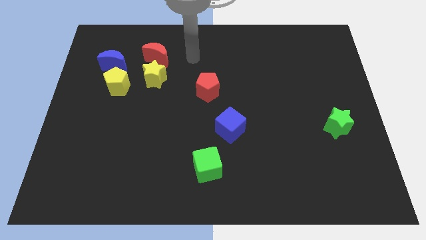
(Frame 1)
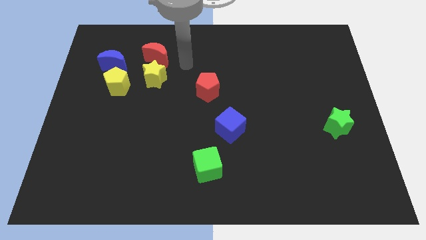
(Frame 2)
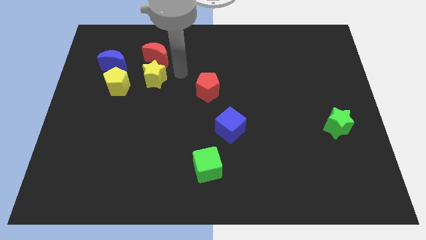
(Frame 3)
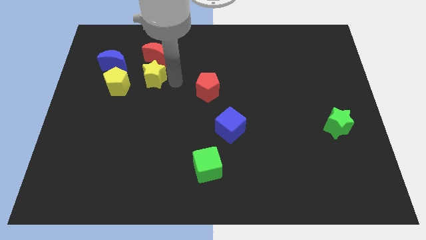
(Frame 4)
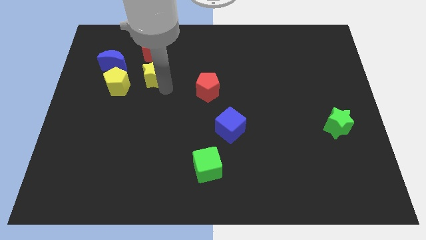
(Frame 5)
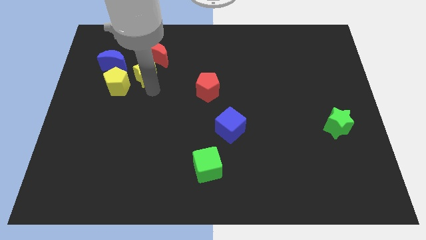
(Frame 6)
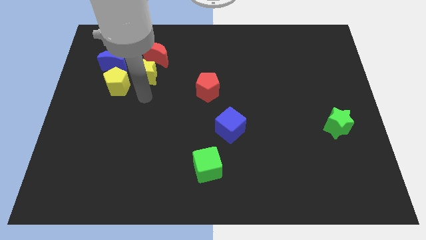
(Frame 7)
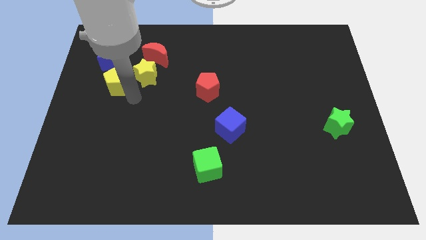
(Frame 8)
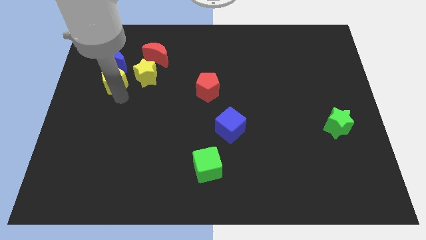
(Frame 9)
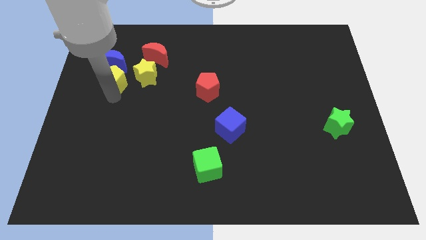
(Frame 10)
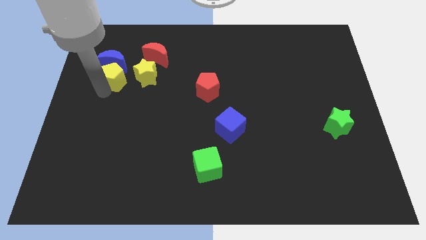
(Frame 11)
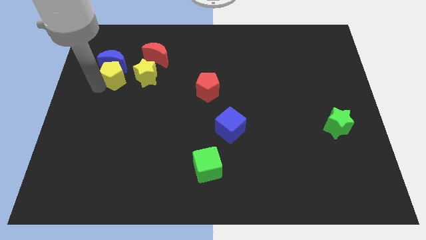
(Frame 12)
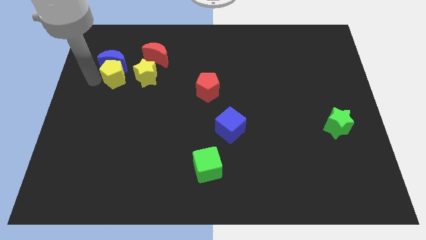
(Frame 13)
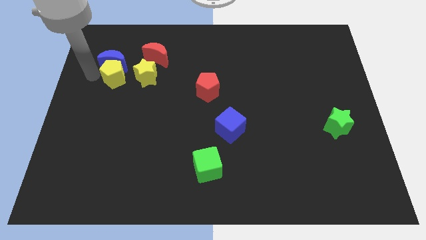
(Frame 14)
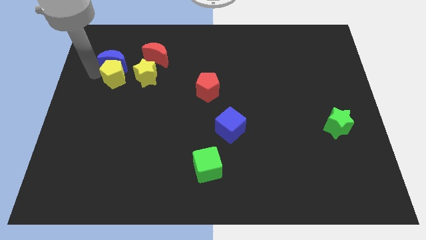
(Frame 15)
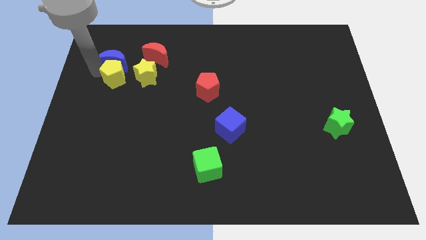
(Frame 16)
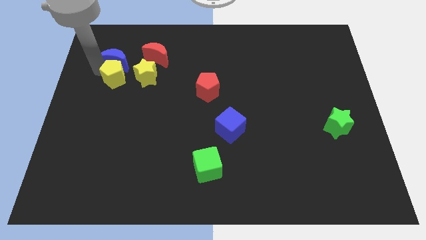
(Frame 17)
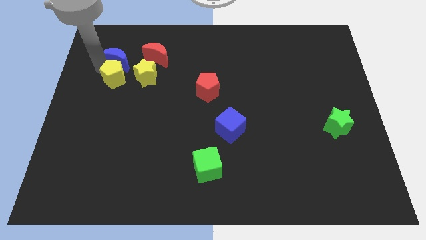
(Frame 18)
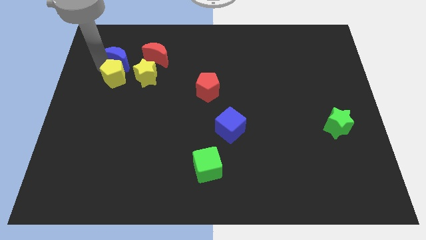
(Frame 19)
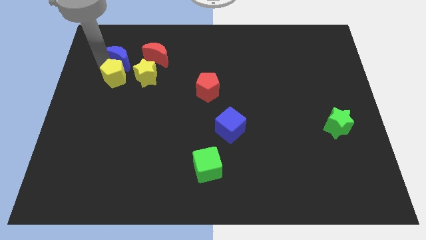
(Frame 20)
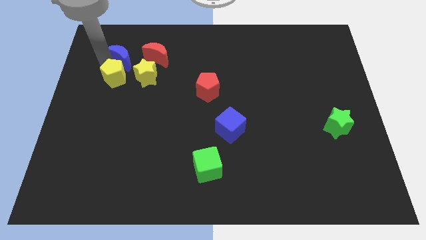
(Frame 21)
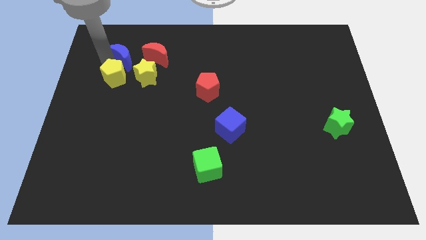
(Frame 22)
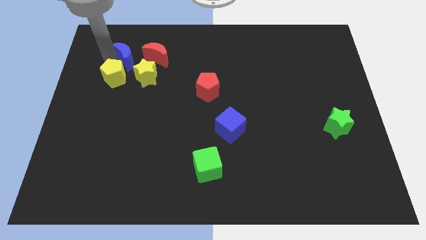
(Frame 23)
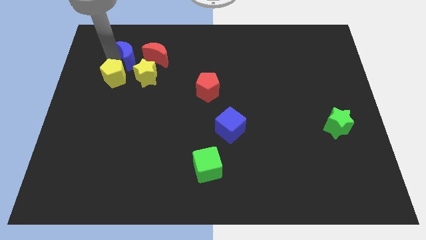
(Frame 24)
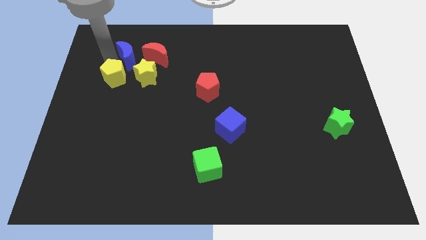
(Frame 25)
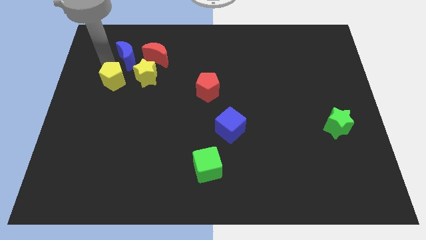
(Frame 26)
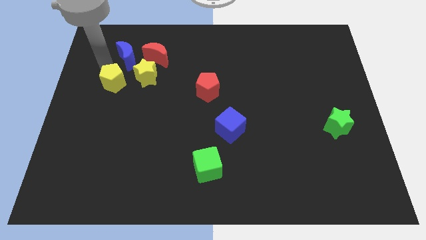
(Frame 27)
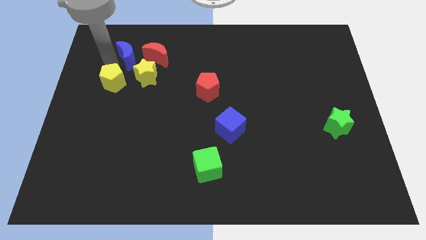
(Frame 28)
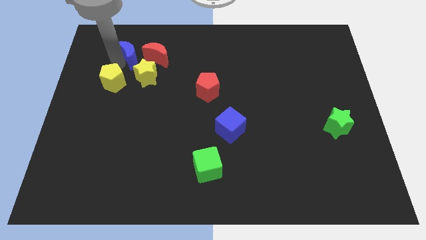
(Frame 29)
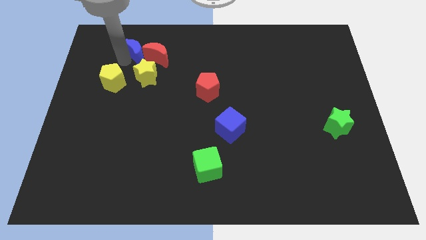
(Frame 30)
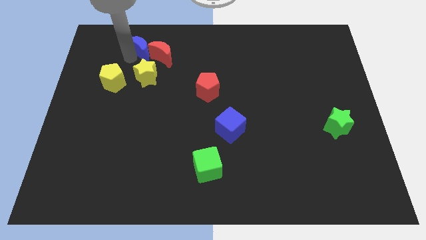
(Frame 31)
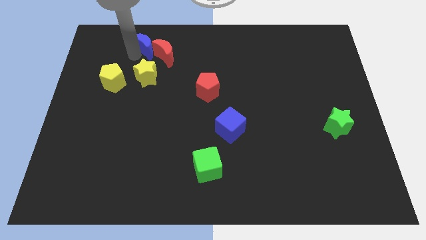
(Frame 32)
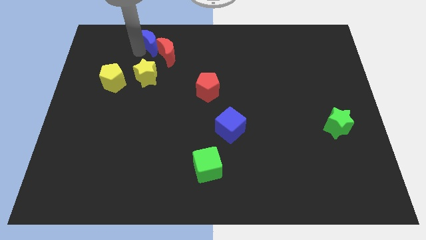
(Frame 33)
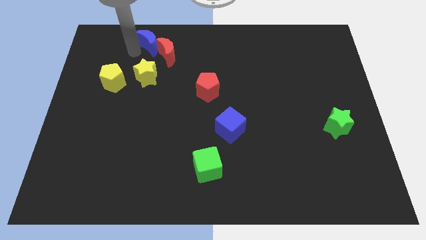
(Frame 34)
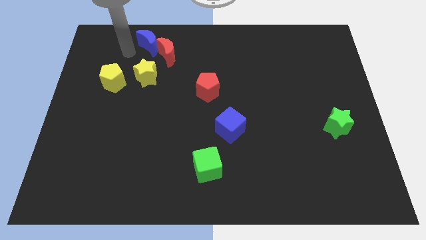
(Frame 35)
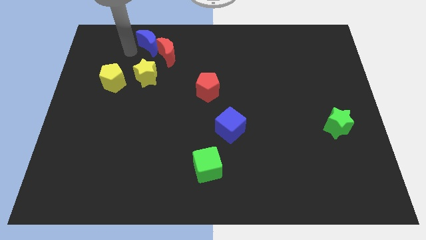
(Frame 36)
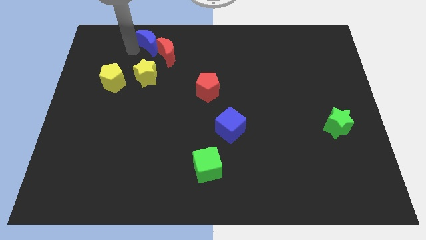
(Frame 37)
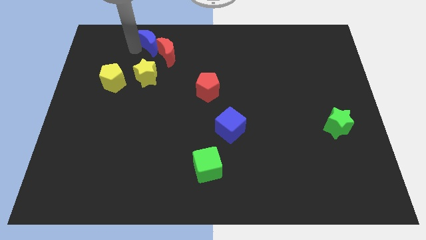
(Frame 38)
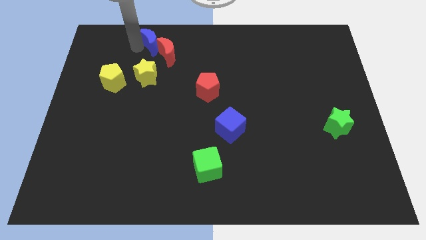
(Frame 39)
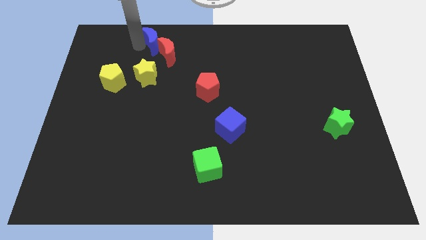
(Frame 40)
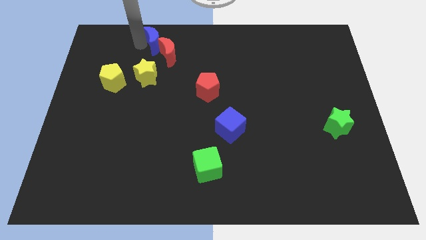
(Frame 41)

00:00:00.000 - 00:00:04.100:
slide the blue moon somewhat to the right

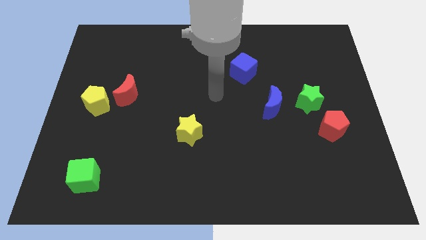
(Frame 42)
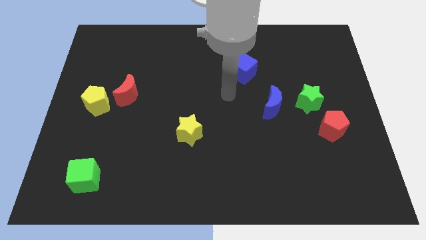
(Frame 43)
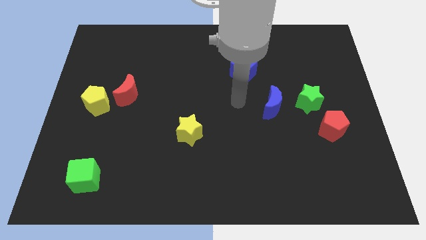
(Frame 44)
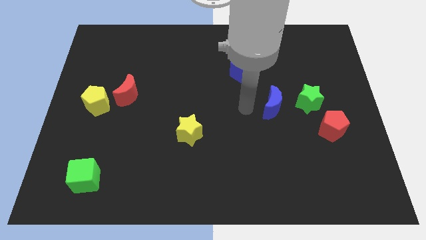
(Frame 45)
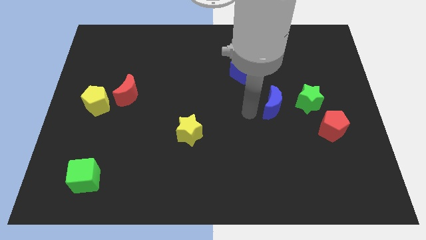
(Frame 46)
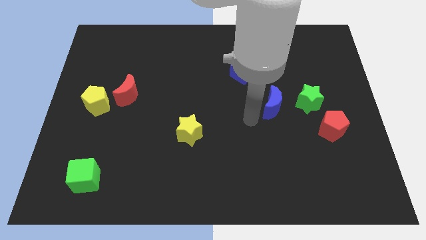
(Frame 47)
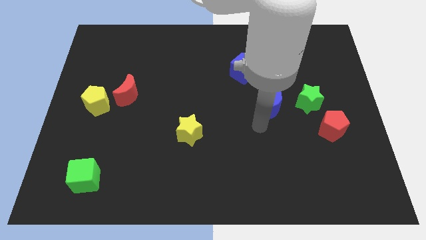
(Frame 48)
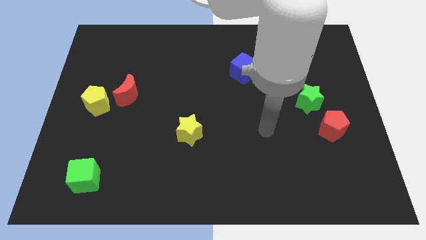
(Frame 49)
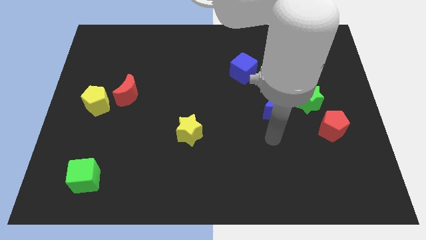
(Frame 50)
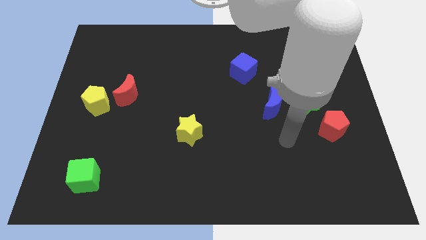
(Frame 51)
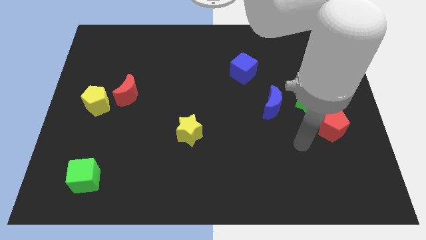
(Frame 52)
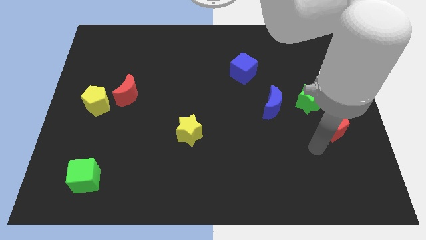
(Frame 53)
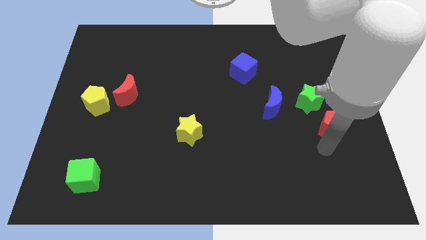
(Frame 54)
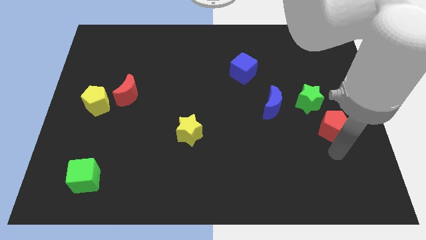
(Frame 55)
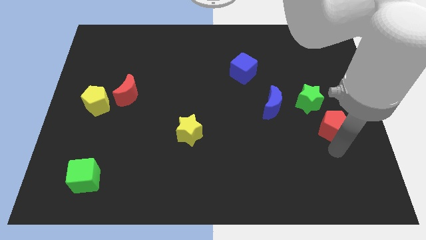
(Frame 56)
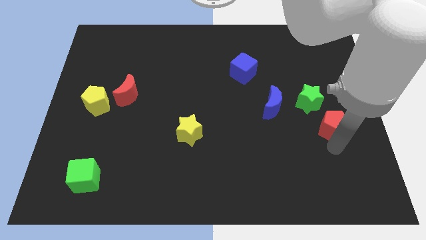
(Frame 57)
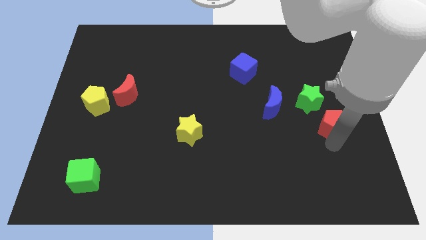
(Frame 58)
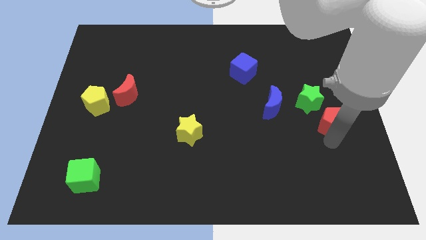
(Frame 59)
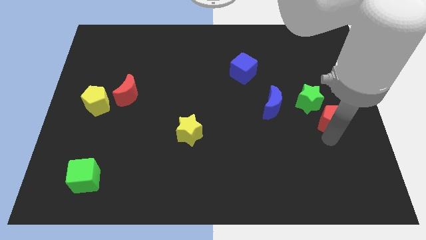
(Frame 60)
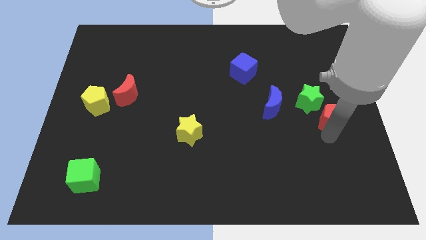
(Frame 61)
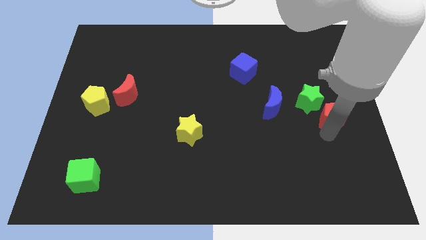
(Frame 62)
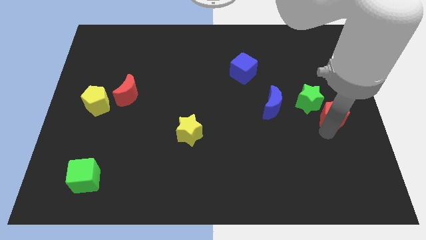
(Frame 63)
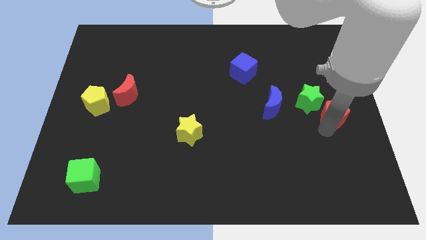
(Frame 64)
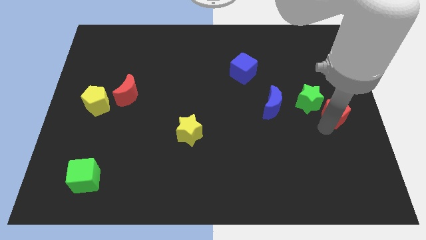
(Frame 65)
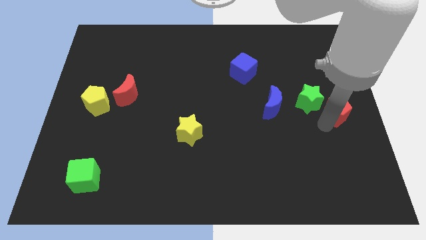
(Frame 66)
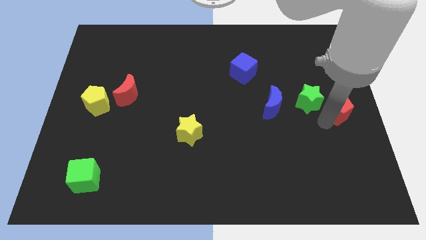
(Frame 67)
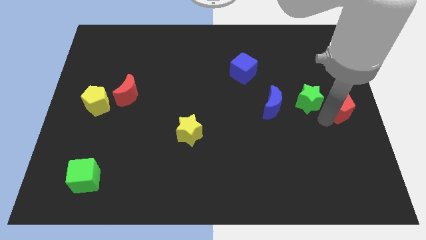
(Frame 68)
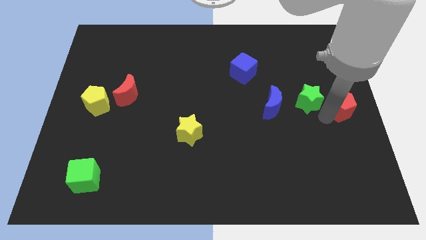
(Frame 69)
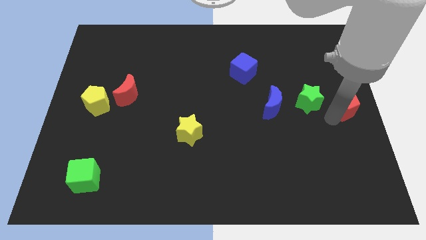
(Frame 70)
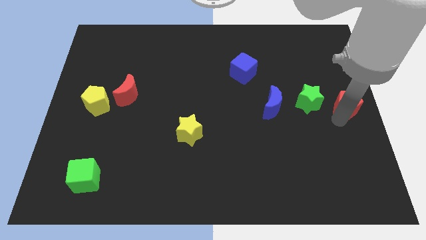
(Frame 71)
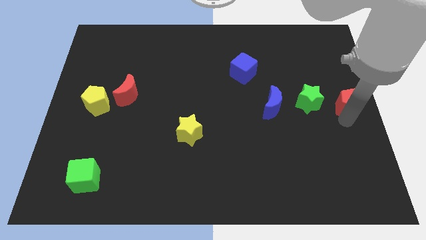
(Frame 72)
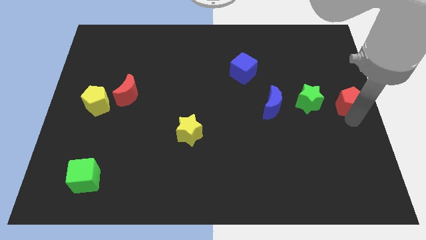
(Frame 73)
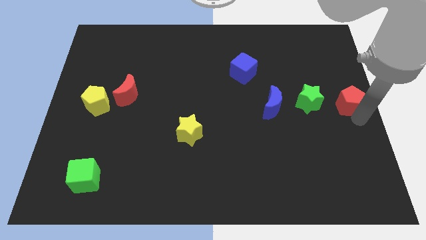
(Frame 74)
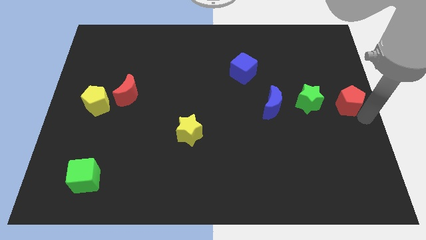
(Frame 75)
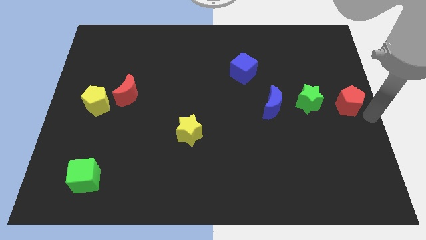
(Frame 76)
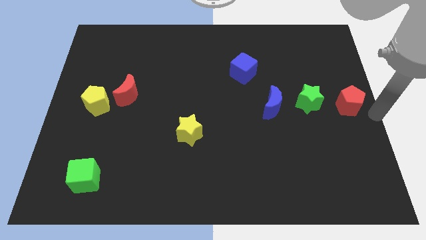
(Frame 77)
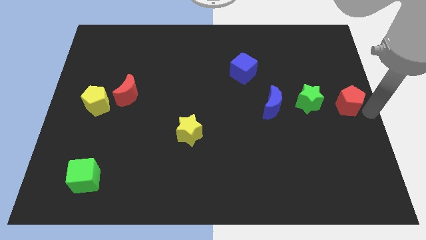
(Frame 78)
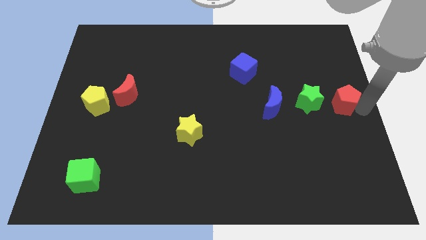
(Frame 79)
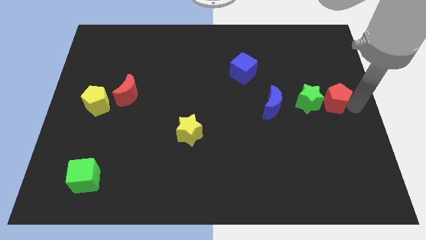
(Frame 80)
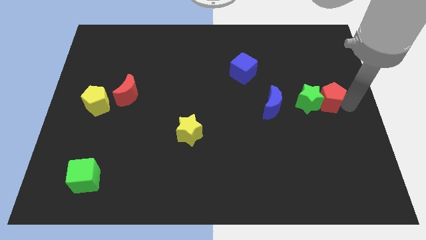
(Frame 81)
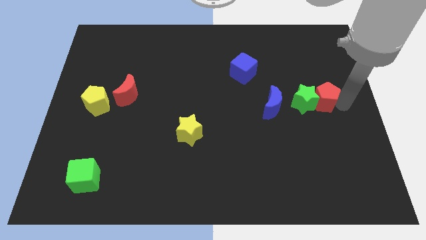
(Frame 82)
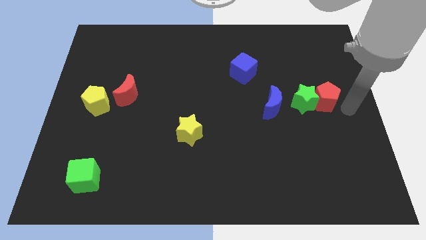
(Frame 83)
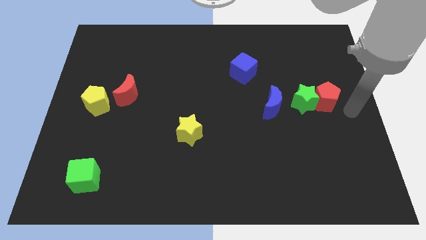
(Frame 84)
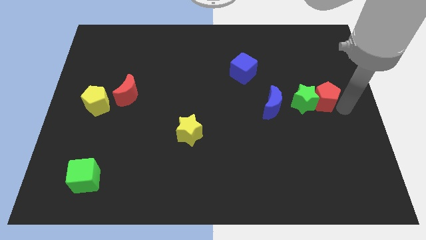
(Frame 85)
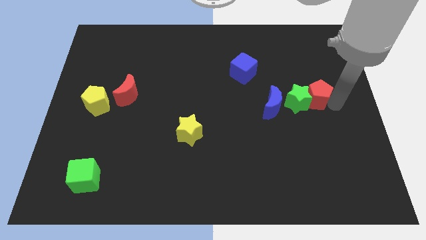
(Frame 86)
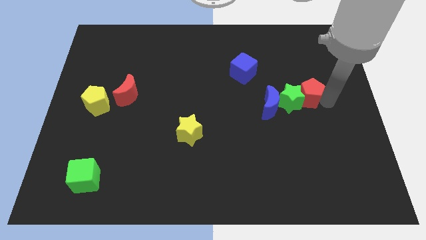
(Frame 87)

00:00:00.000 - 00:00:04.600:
slide the red pentagon up and then left slightly
